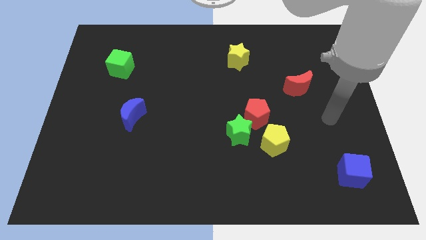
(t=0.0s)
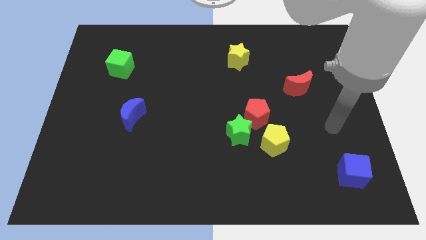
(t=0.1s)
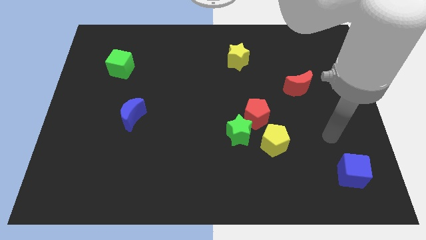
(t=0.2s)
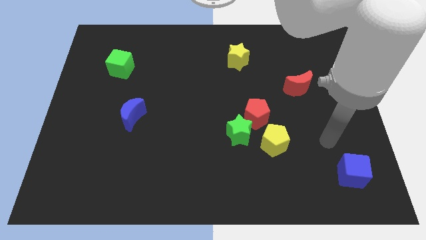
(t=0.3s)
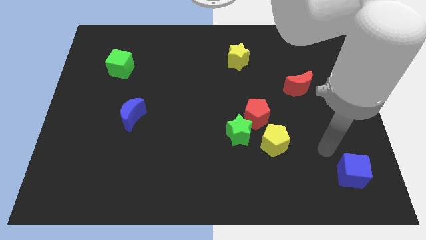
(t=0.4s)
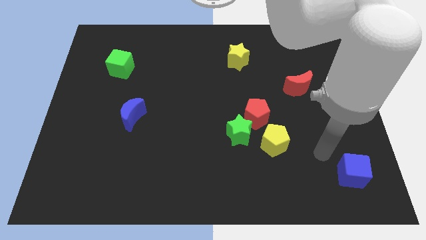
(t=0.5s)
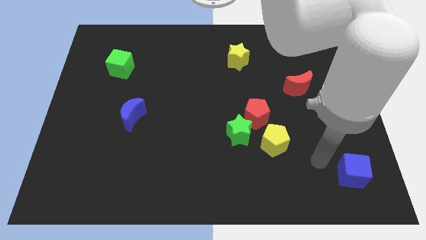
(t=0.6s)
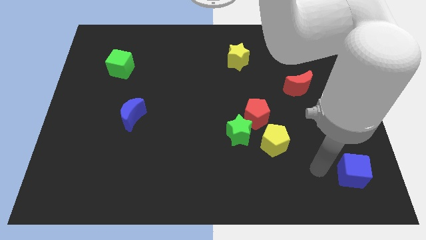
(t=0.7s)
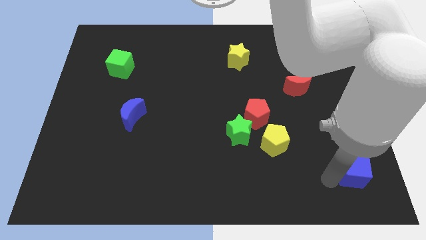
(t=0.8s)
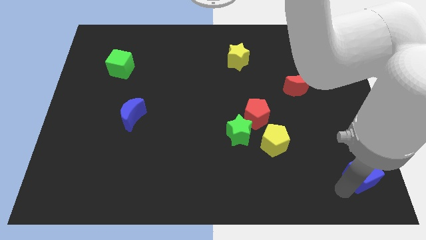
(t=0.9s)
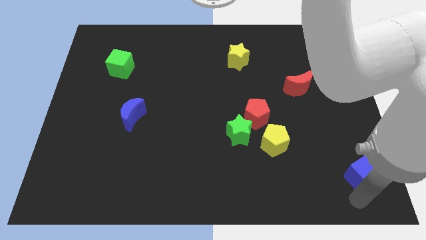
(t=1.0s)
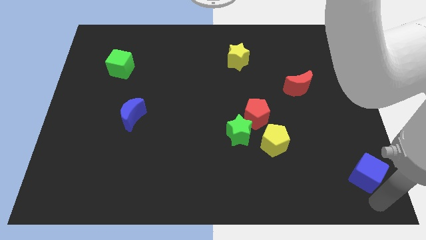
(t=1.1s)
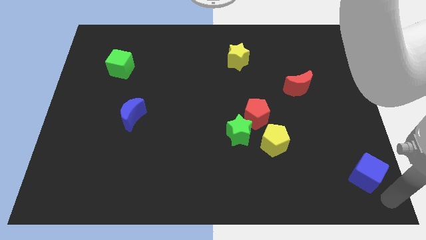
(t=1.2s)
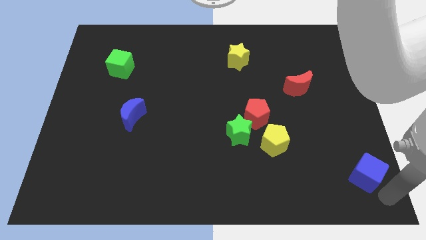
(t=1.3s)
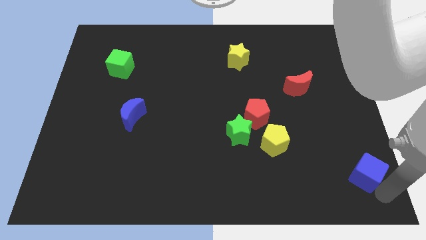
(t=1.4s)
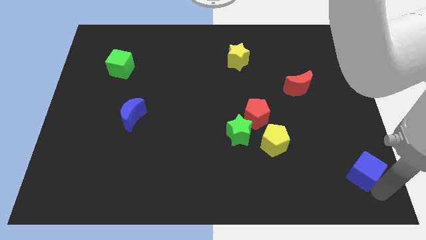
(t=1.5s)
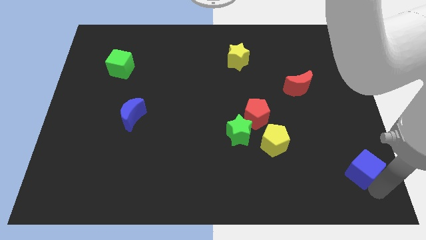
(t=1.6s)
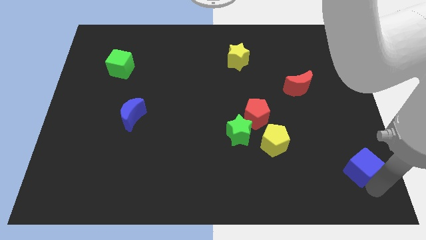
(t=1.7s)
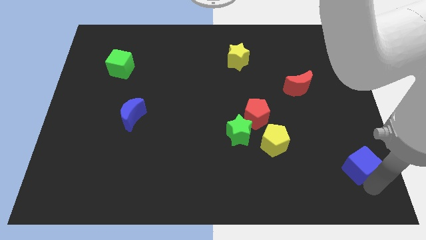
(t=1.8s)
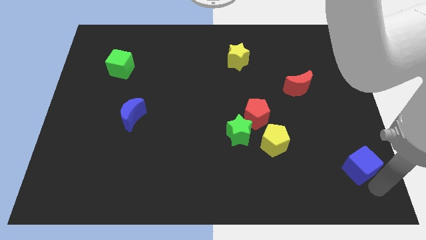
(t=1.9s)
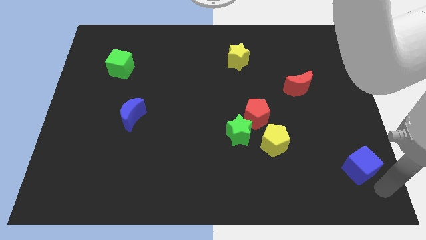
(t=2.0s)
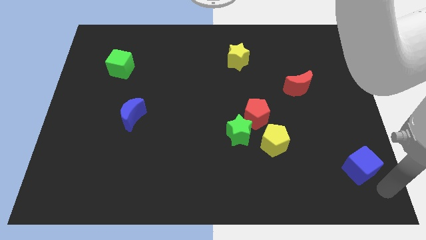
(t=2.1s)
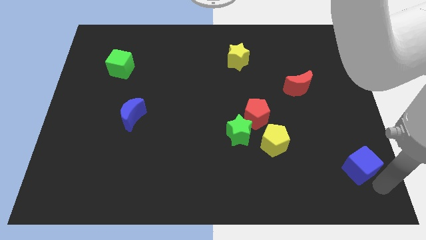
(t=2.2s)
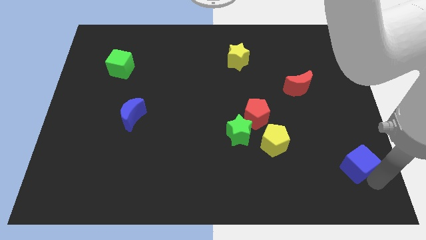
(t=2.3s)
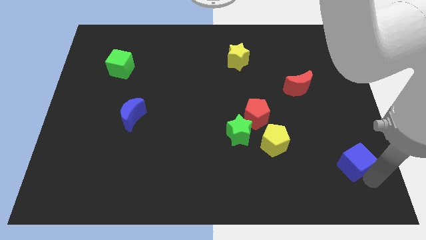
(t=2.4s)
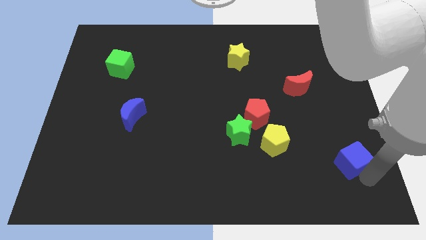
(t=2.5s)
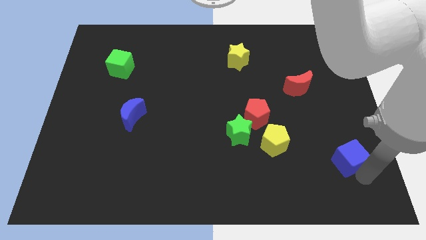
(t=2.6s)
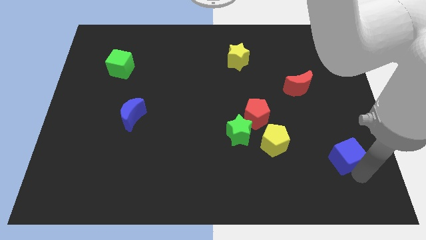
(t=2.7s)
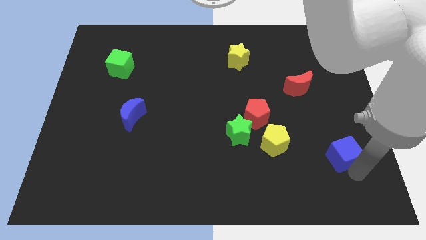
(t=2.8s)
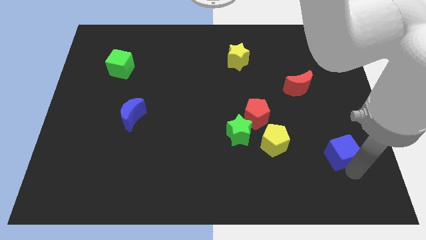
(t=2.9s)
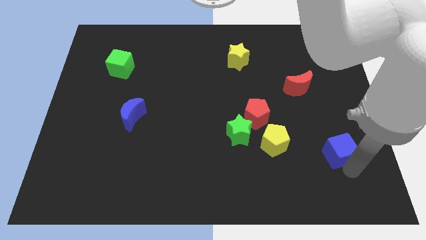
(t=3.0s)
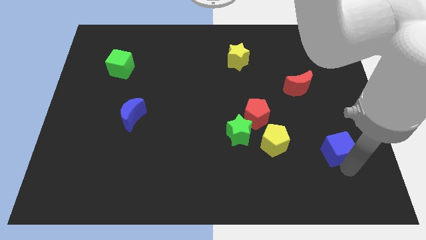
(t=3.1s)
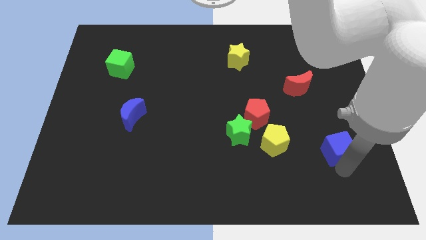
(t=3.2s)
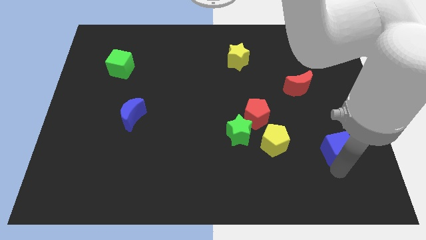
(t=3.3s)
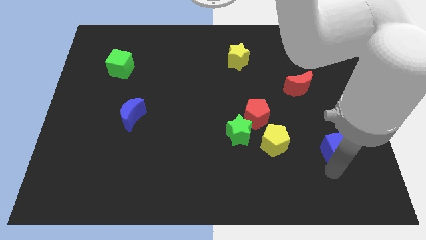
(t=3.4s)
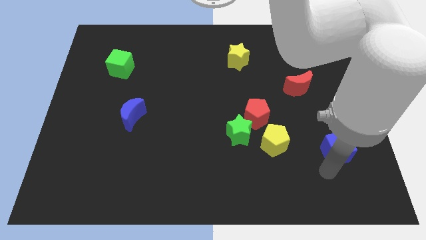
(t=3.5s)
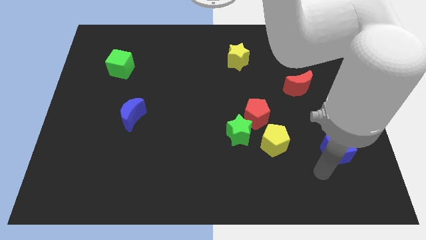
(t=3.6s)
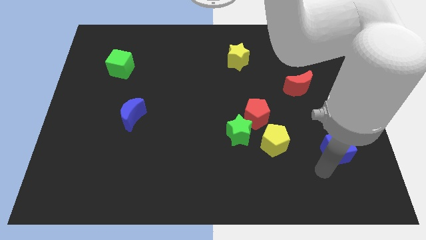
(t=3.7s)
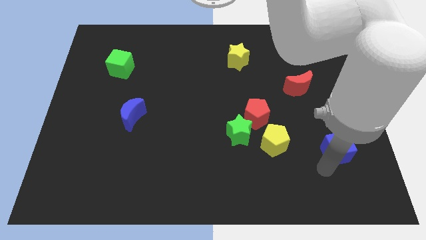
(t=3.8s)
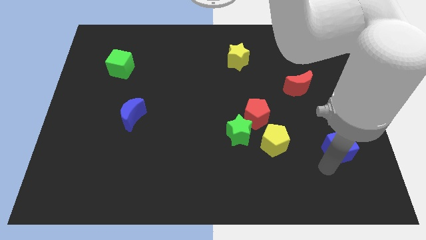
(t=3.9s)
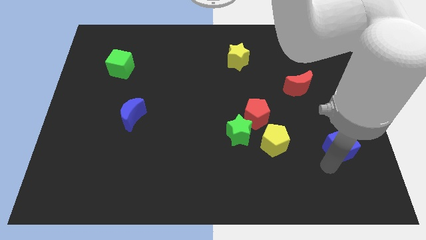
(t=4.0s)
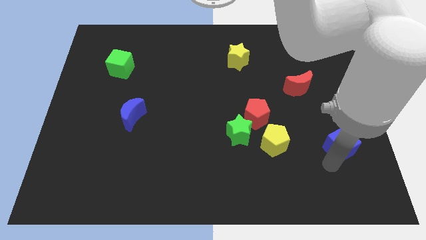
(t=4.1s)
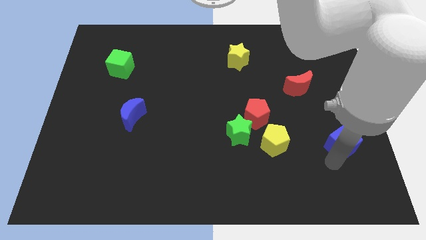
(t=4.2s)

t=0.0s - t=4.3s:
move the blue cube somewhat up

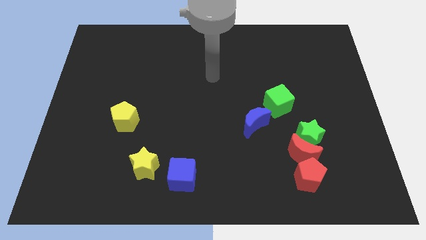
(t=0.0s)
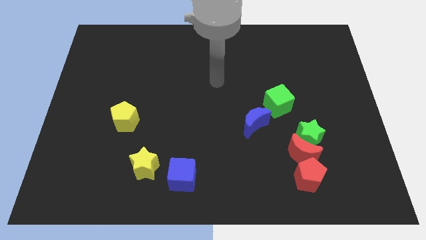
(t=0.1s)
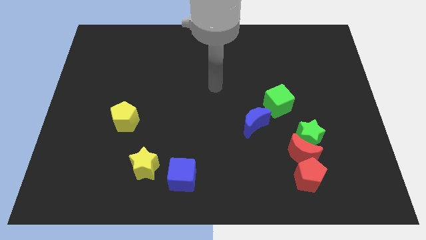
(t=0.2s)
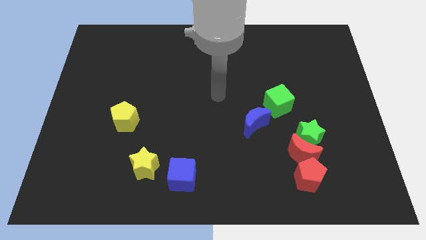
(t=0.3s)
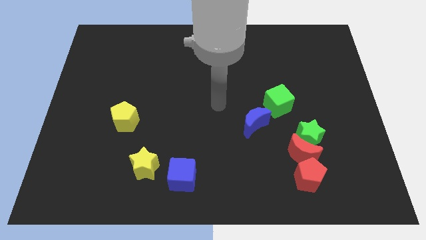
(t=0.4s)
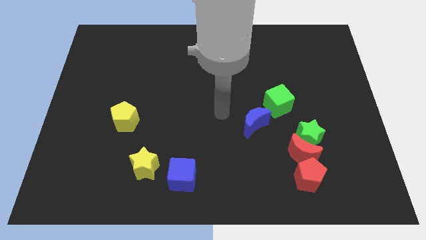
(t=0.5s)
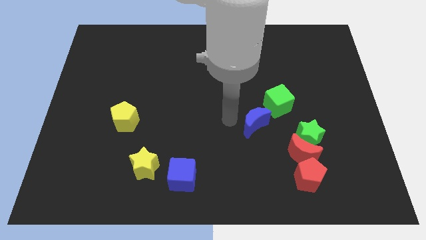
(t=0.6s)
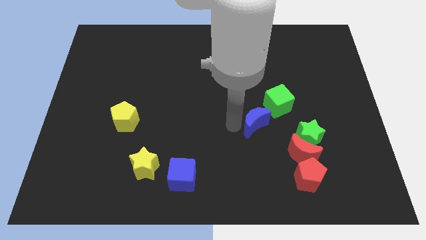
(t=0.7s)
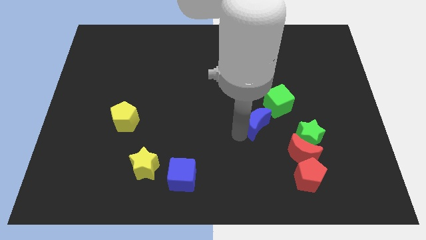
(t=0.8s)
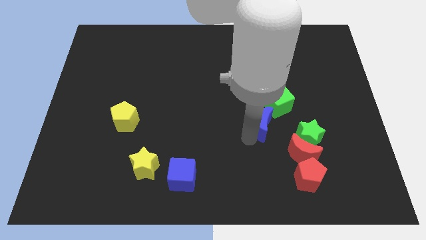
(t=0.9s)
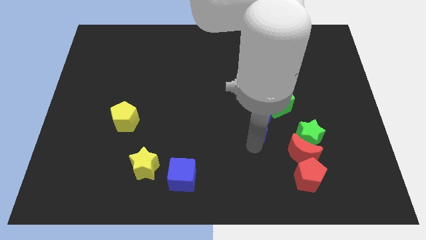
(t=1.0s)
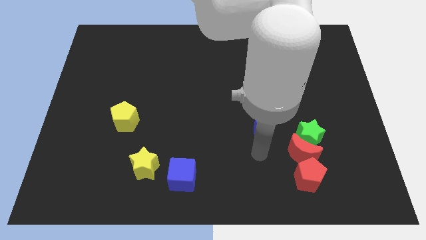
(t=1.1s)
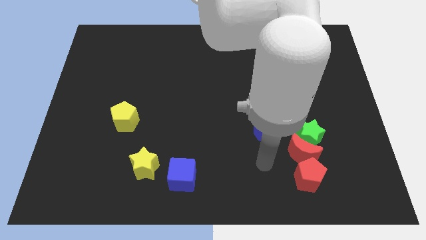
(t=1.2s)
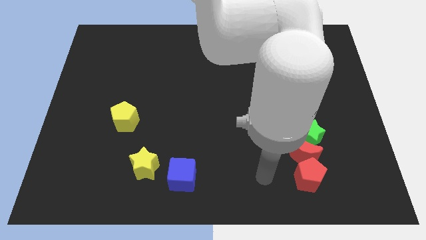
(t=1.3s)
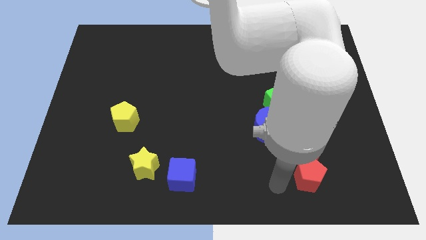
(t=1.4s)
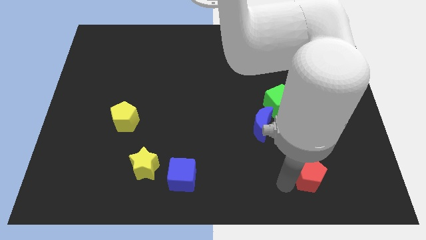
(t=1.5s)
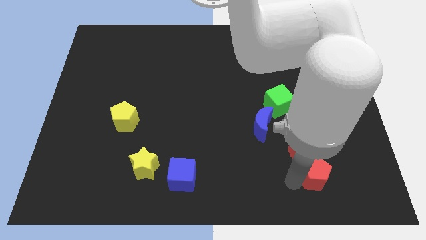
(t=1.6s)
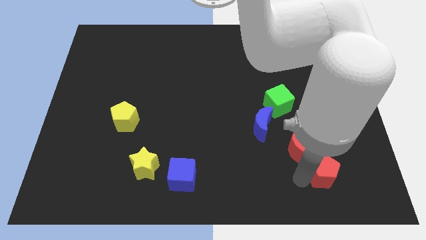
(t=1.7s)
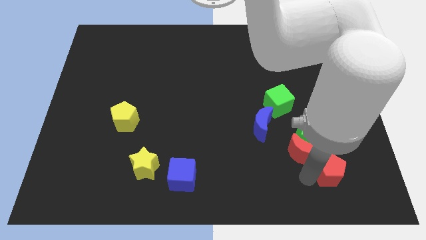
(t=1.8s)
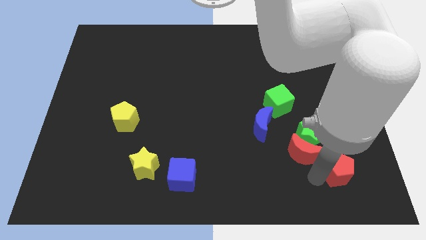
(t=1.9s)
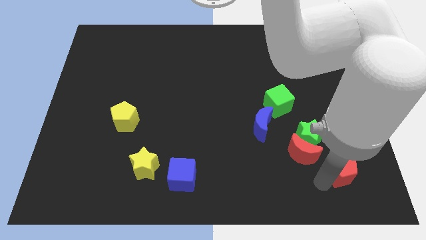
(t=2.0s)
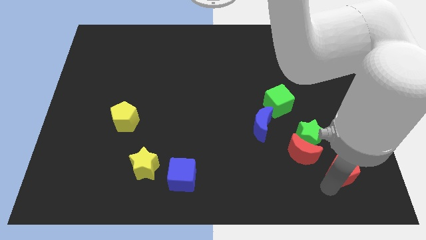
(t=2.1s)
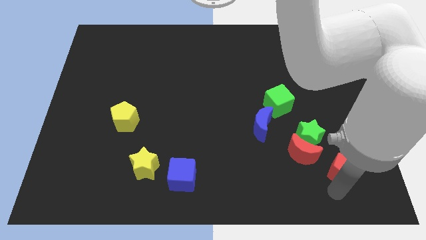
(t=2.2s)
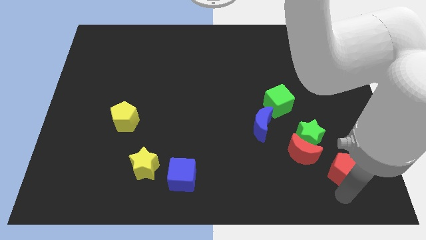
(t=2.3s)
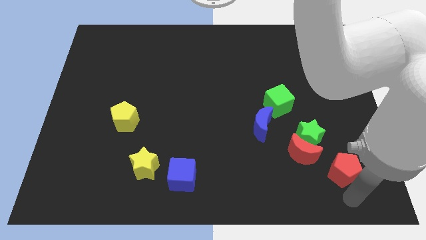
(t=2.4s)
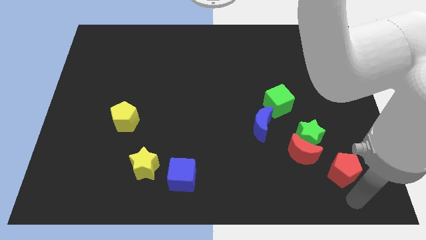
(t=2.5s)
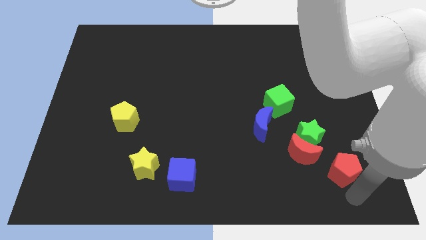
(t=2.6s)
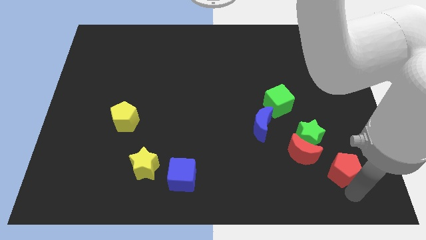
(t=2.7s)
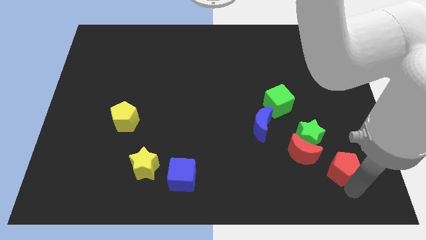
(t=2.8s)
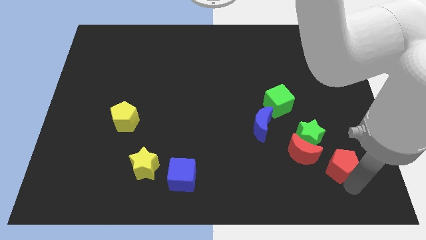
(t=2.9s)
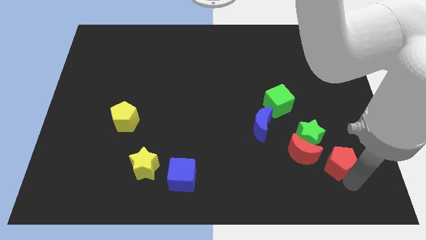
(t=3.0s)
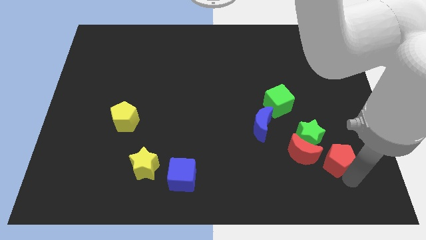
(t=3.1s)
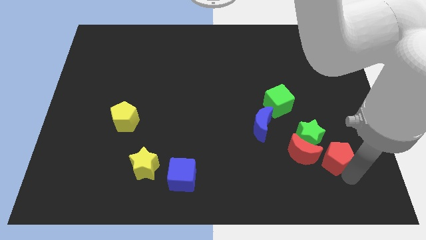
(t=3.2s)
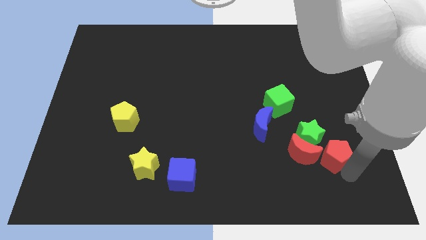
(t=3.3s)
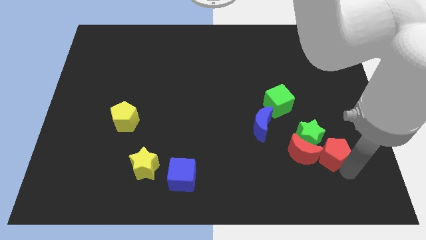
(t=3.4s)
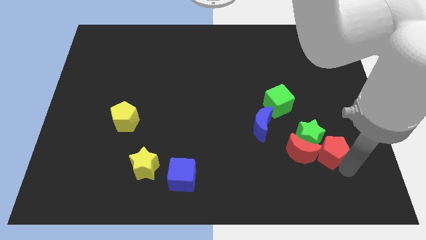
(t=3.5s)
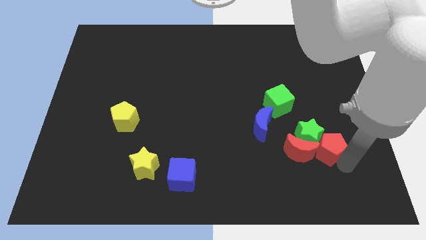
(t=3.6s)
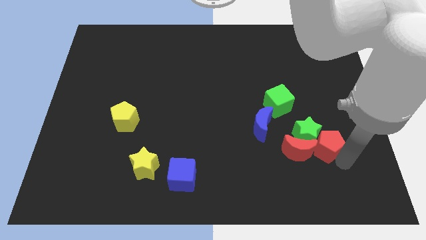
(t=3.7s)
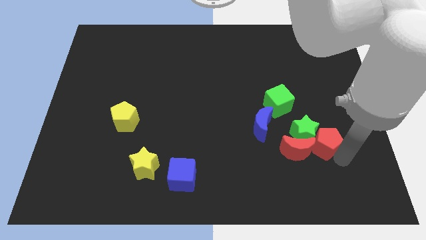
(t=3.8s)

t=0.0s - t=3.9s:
slightly slide the red pentagon up
